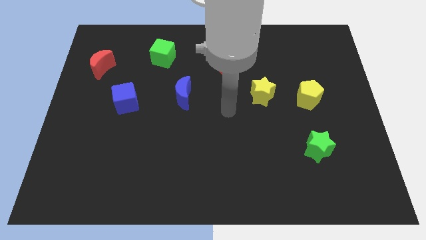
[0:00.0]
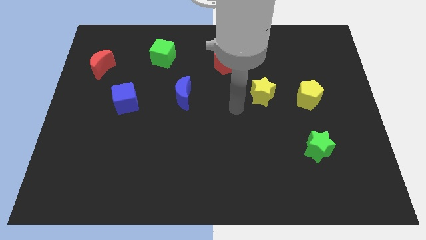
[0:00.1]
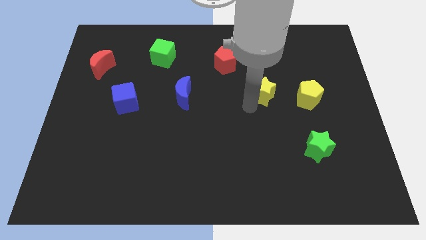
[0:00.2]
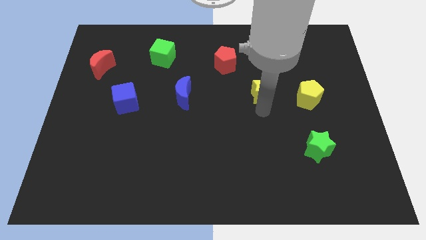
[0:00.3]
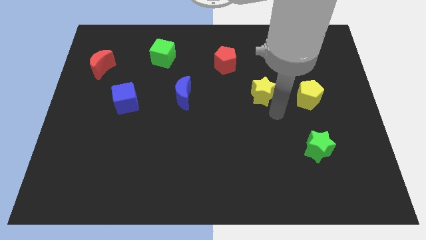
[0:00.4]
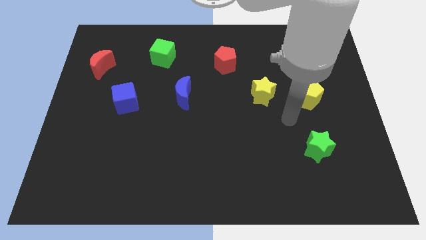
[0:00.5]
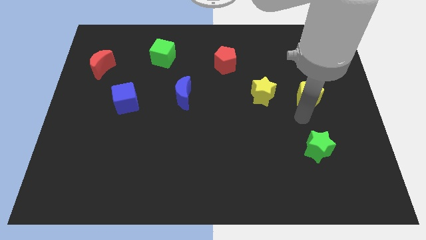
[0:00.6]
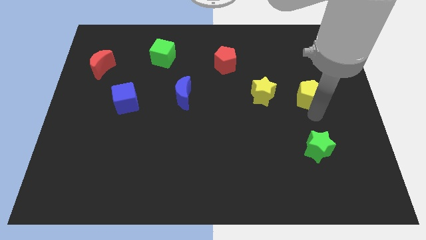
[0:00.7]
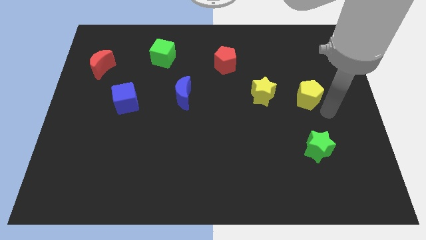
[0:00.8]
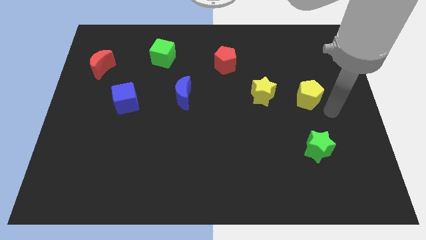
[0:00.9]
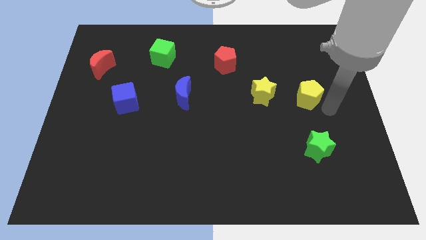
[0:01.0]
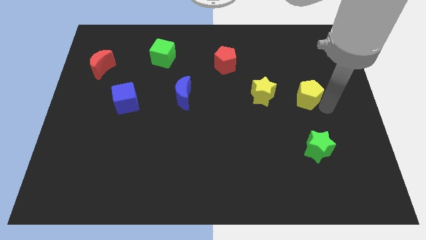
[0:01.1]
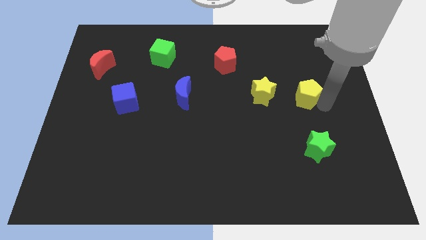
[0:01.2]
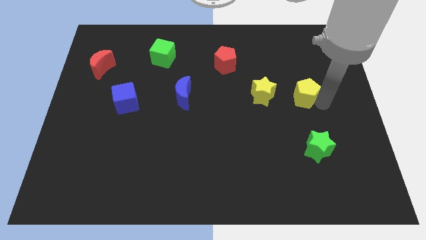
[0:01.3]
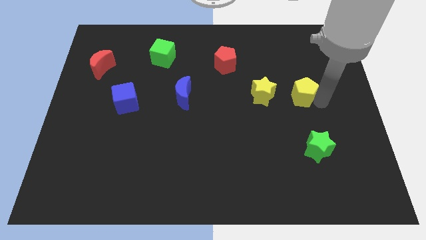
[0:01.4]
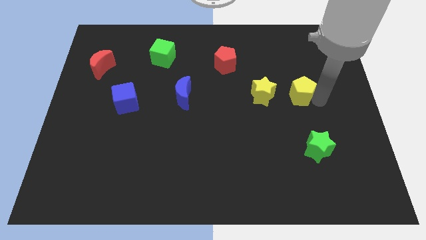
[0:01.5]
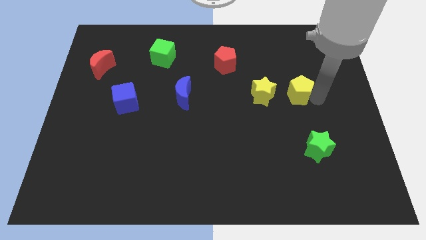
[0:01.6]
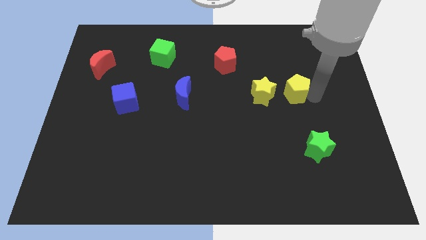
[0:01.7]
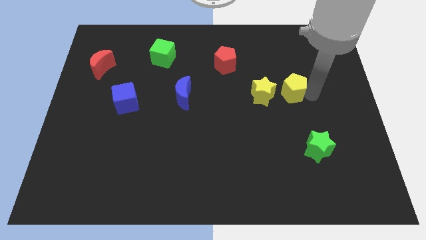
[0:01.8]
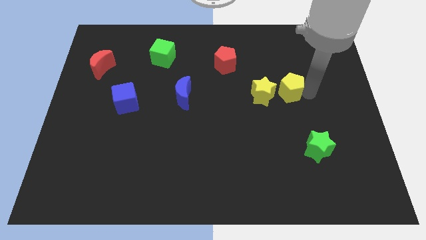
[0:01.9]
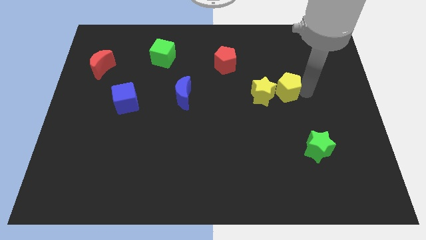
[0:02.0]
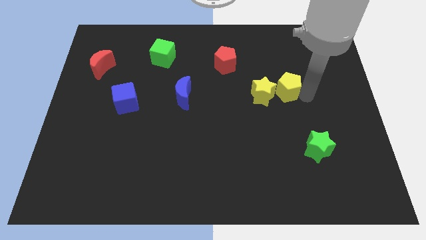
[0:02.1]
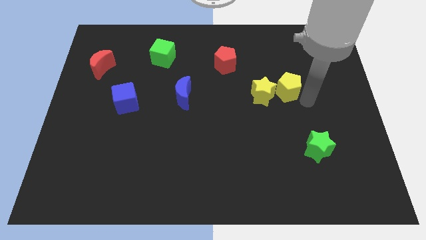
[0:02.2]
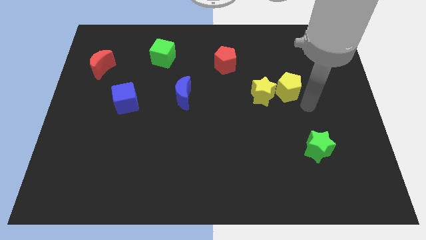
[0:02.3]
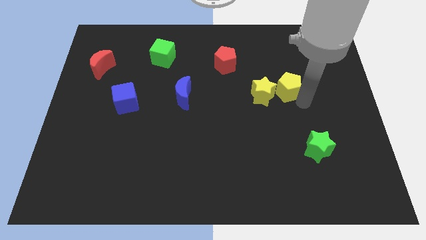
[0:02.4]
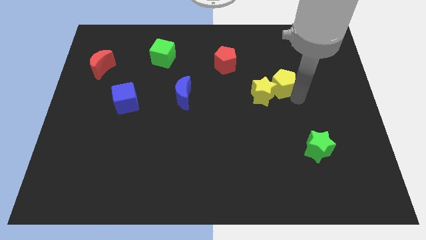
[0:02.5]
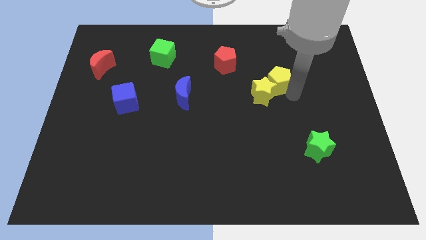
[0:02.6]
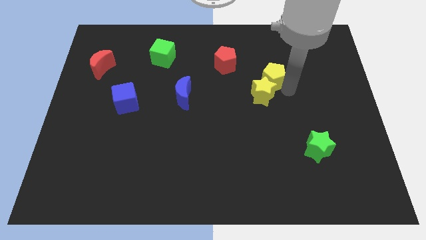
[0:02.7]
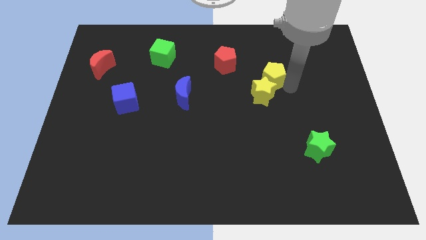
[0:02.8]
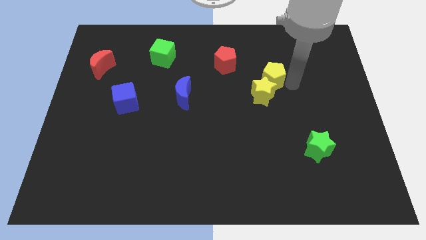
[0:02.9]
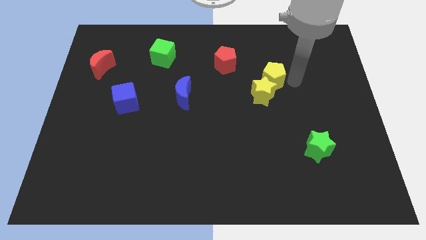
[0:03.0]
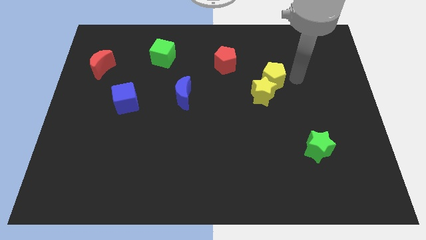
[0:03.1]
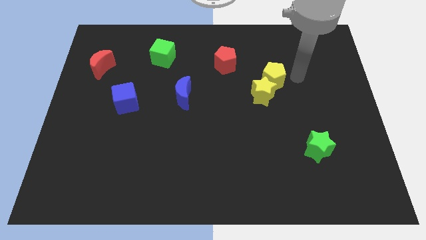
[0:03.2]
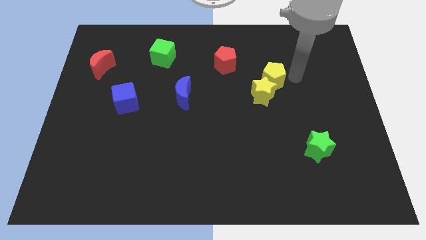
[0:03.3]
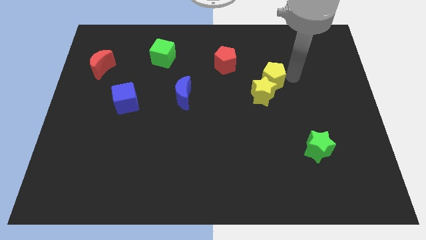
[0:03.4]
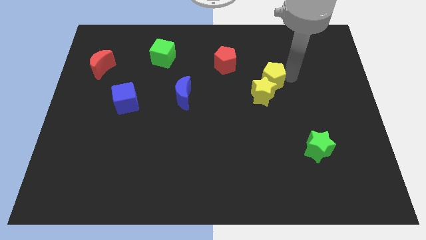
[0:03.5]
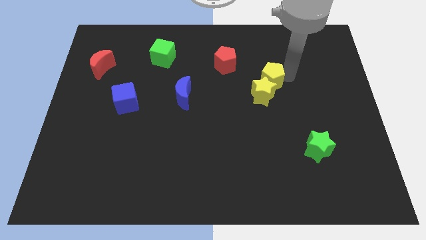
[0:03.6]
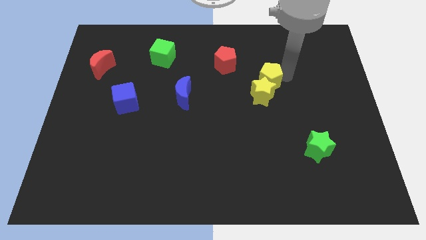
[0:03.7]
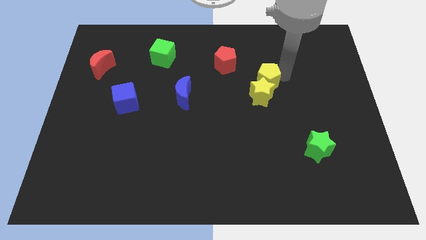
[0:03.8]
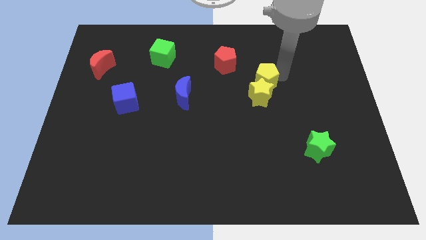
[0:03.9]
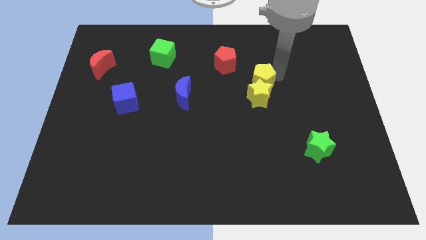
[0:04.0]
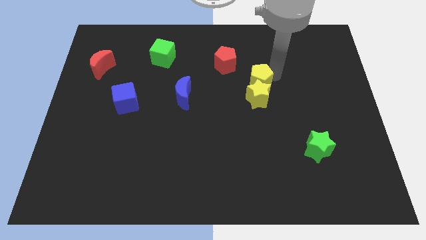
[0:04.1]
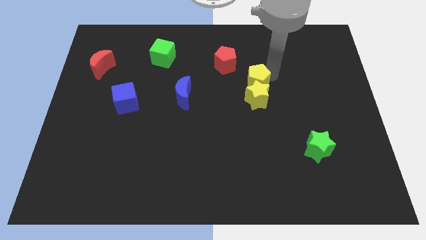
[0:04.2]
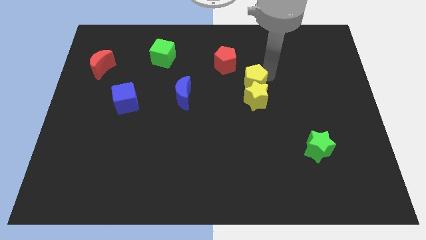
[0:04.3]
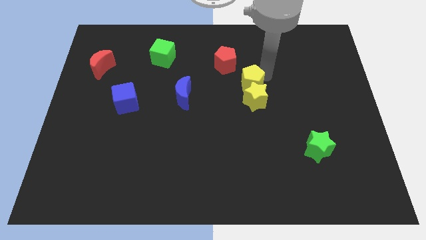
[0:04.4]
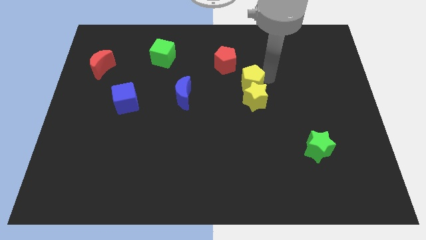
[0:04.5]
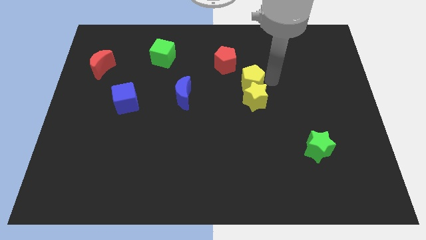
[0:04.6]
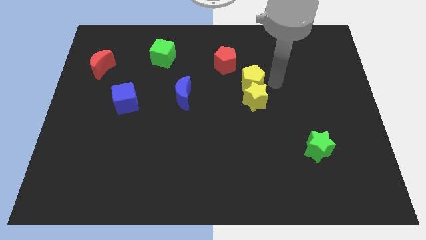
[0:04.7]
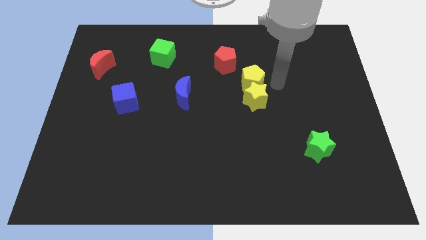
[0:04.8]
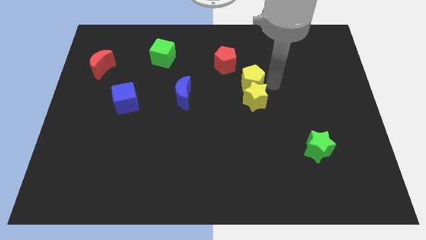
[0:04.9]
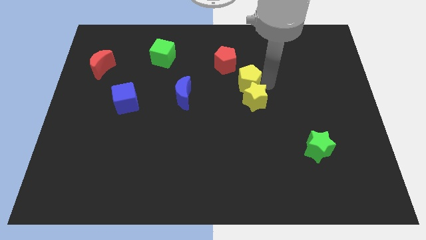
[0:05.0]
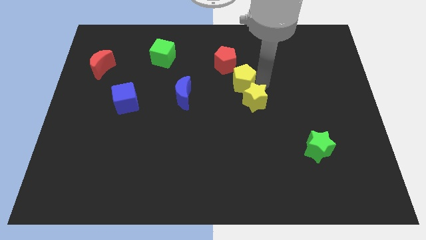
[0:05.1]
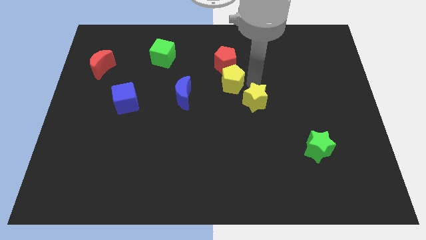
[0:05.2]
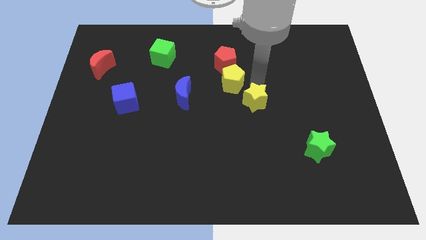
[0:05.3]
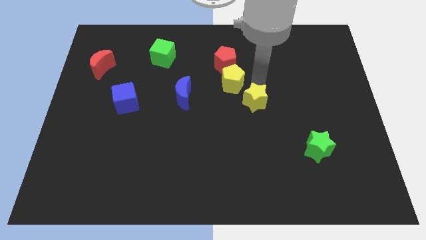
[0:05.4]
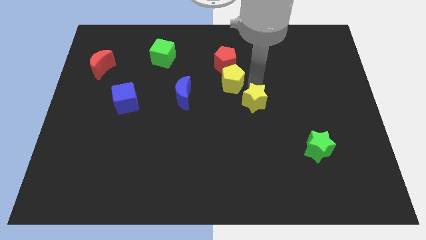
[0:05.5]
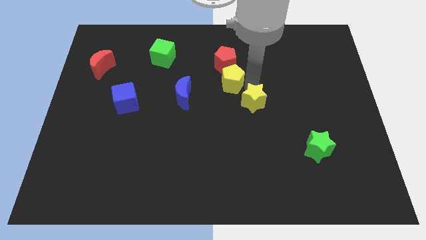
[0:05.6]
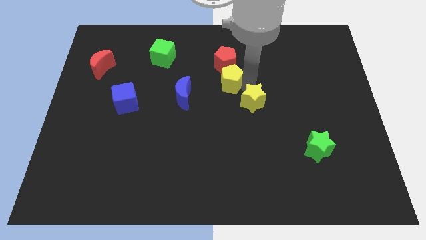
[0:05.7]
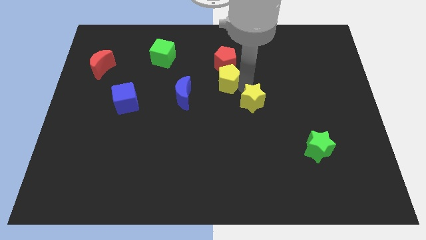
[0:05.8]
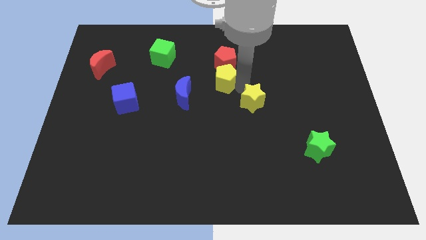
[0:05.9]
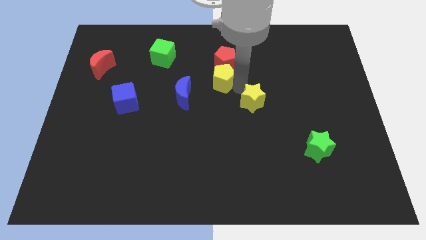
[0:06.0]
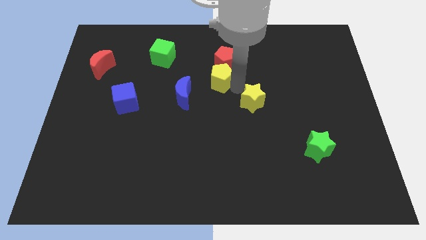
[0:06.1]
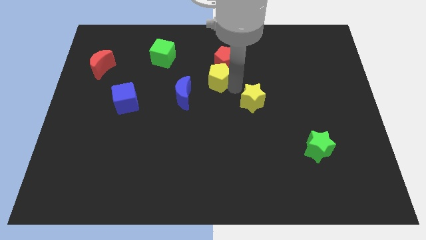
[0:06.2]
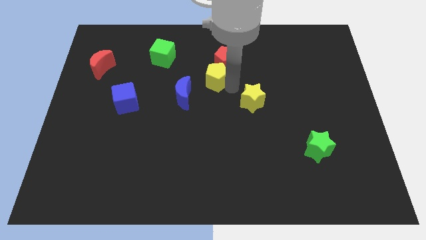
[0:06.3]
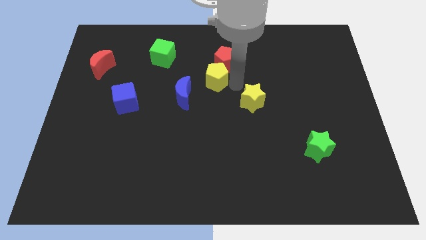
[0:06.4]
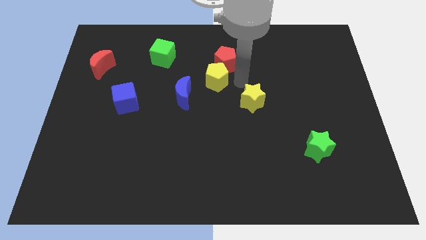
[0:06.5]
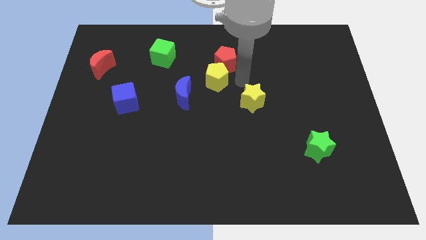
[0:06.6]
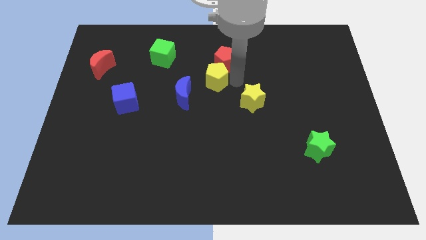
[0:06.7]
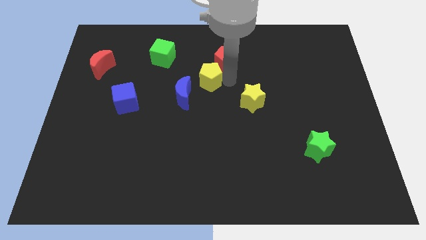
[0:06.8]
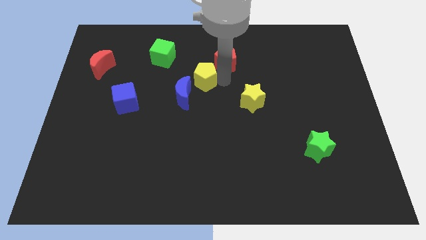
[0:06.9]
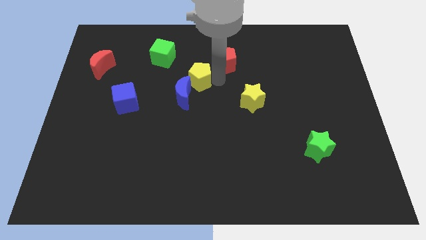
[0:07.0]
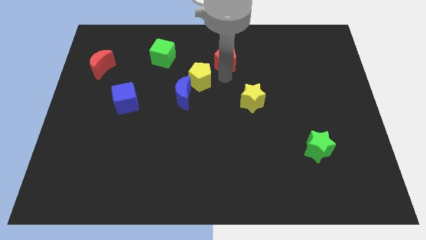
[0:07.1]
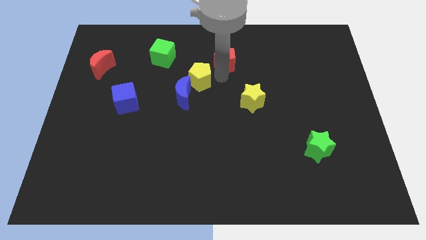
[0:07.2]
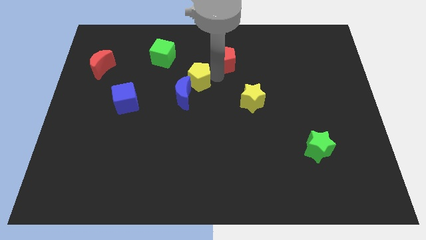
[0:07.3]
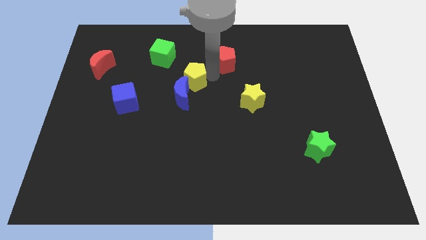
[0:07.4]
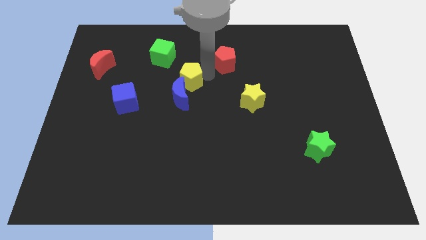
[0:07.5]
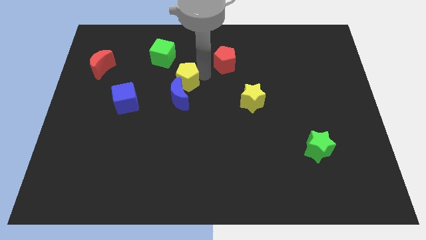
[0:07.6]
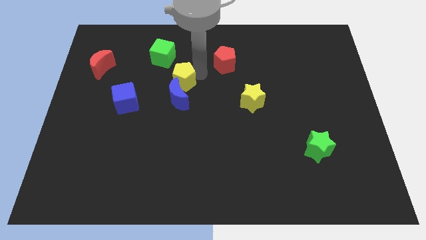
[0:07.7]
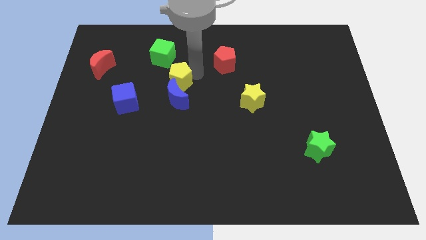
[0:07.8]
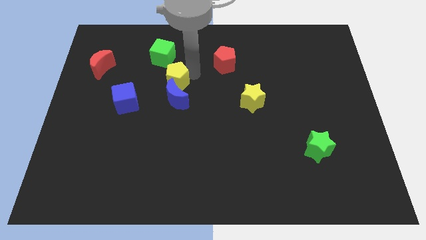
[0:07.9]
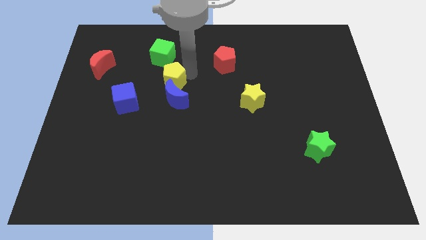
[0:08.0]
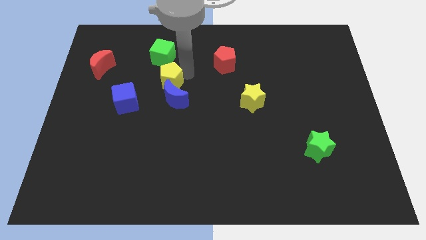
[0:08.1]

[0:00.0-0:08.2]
move the yellow pentagon diagonally up and to the right of the blue cube
